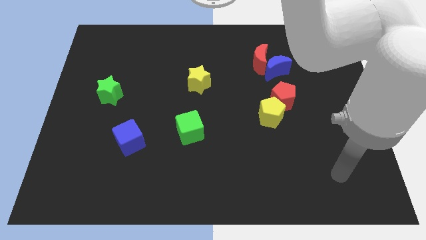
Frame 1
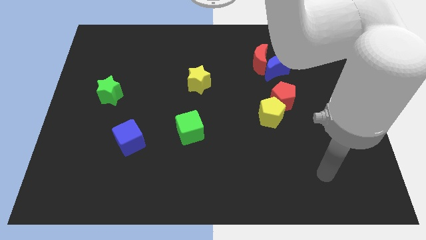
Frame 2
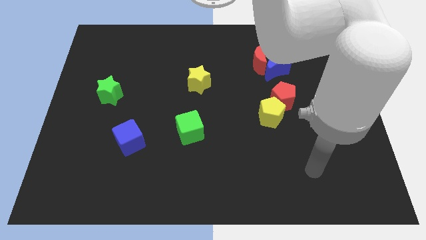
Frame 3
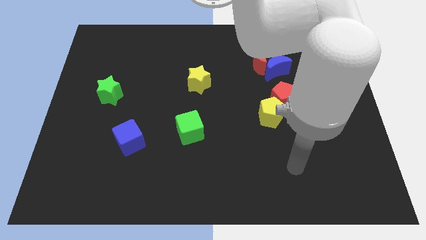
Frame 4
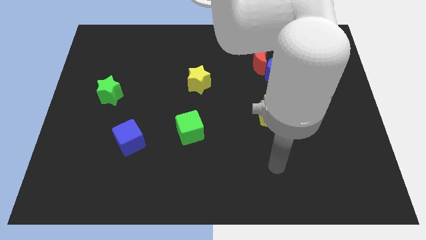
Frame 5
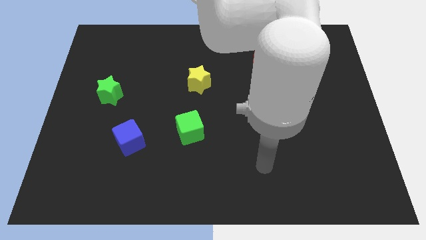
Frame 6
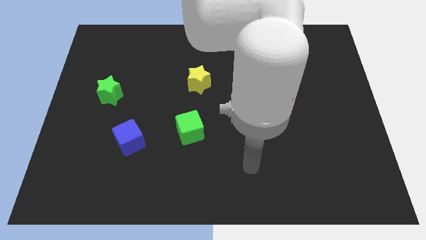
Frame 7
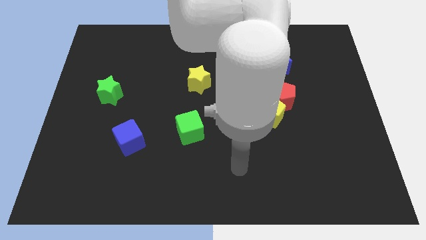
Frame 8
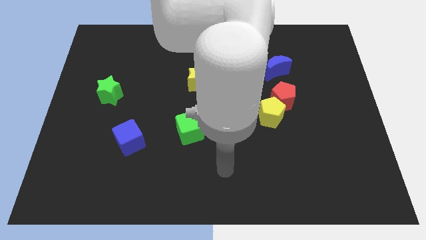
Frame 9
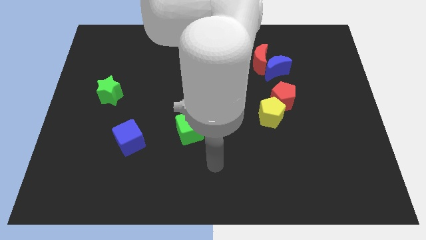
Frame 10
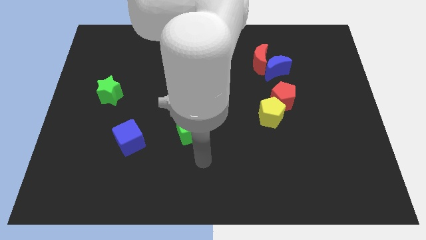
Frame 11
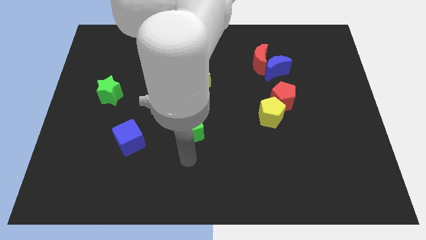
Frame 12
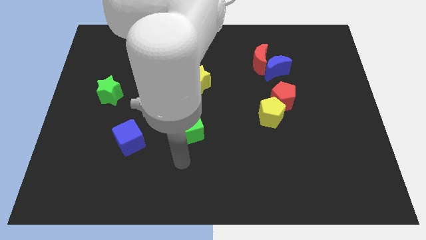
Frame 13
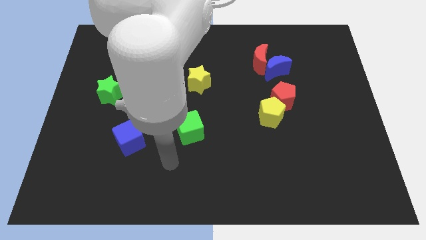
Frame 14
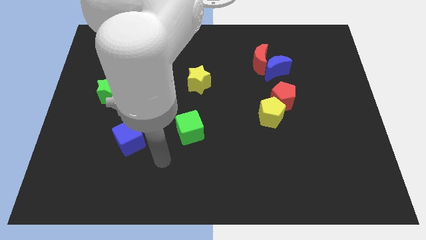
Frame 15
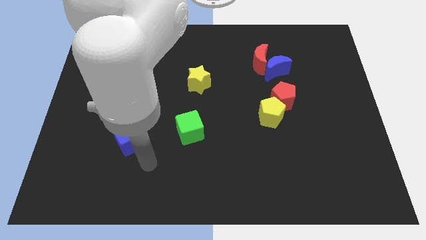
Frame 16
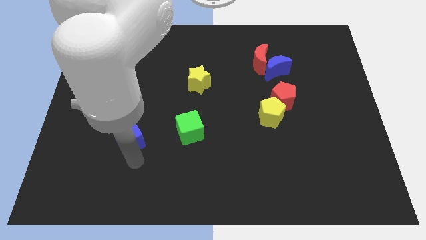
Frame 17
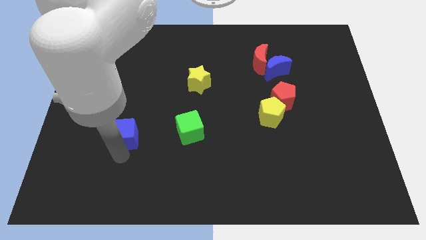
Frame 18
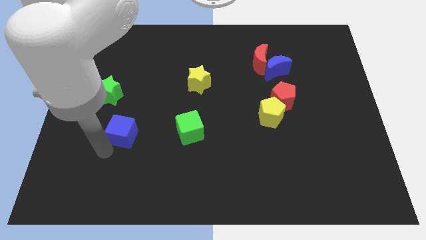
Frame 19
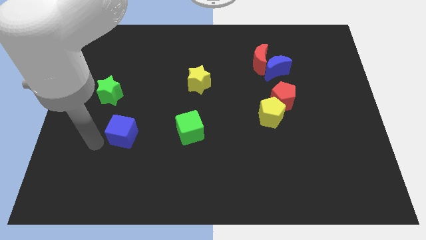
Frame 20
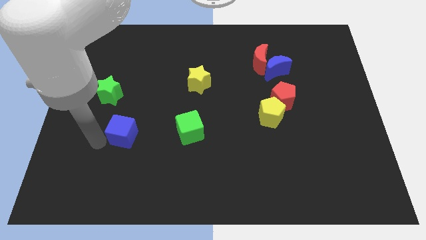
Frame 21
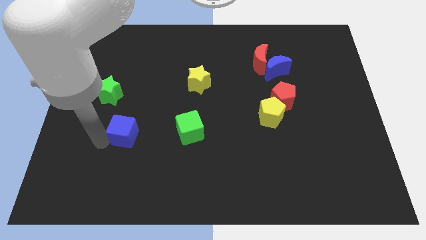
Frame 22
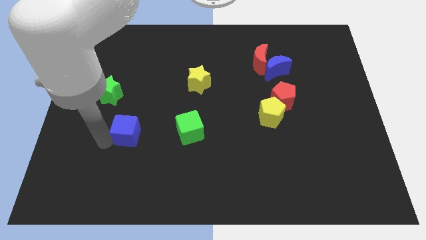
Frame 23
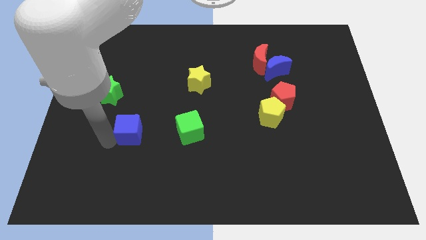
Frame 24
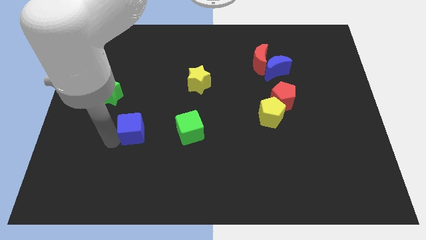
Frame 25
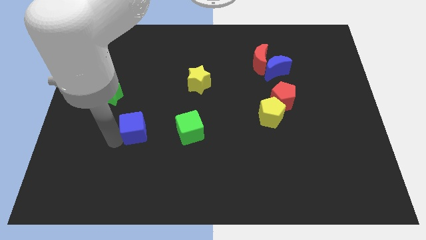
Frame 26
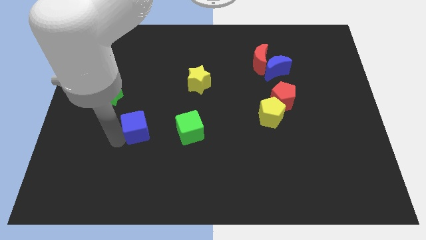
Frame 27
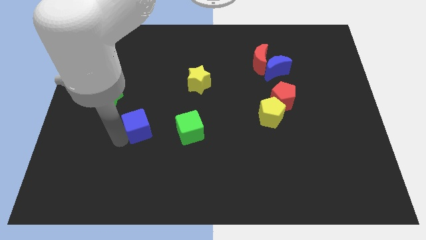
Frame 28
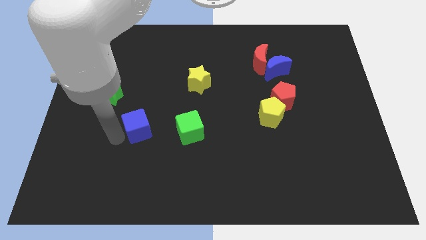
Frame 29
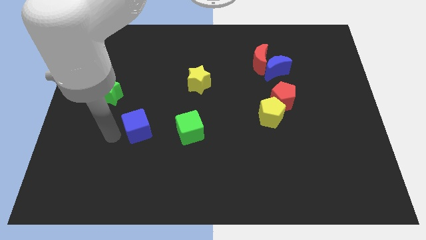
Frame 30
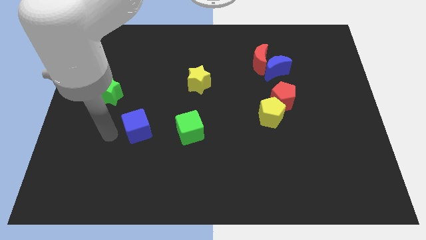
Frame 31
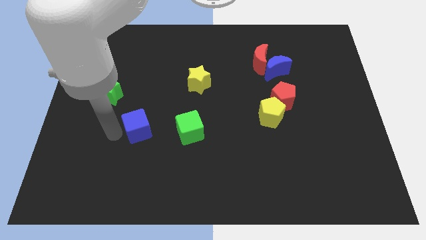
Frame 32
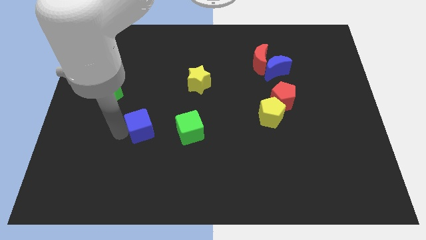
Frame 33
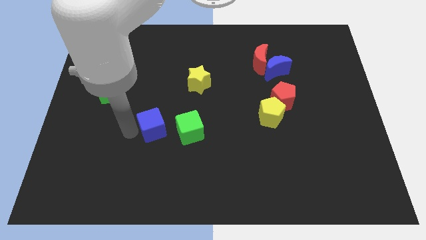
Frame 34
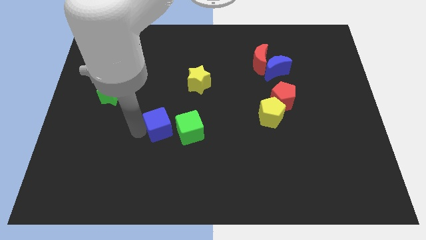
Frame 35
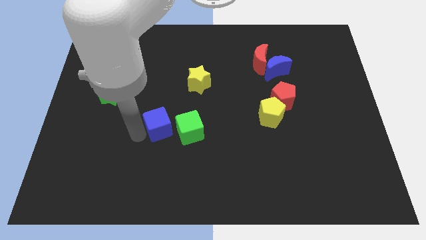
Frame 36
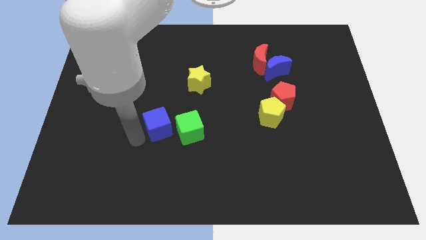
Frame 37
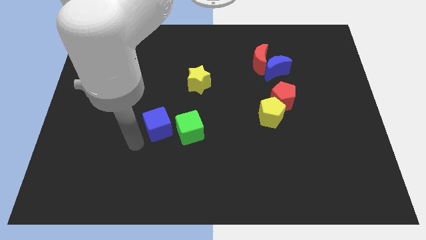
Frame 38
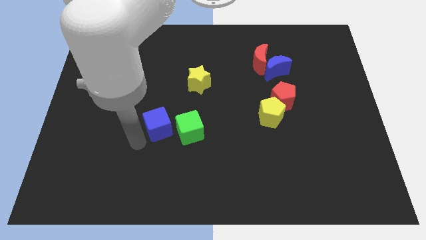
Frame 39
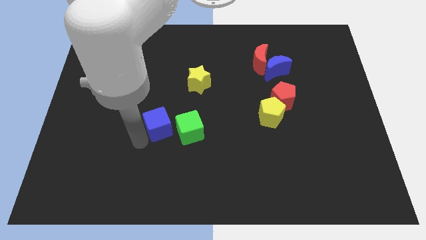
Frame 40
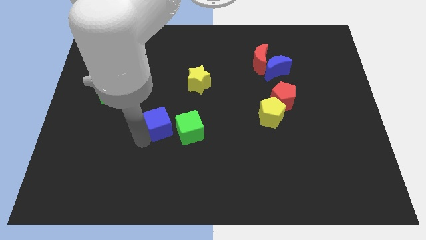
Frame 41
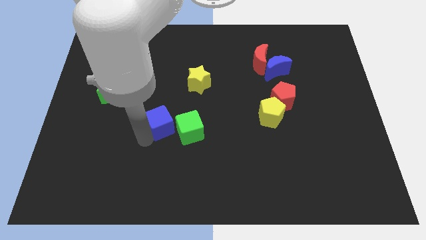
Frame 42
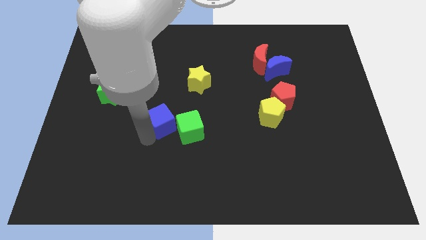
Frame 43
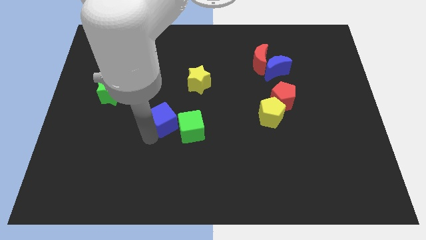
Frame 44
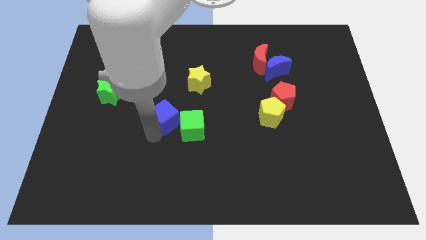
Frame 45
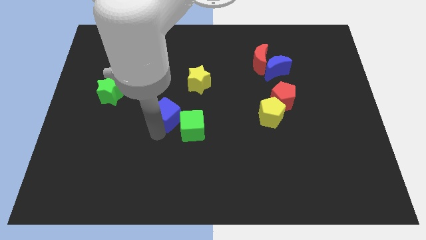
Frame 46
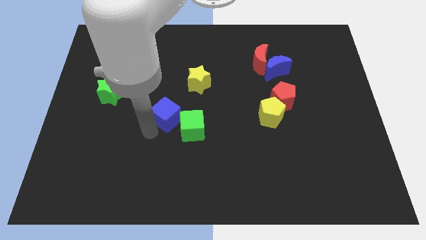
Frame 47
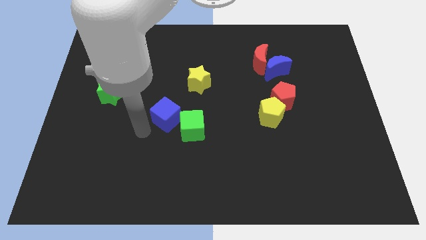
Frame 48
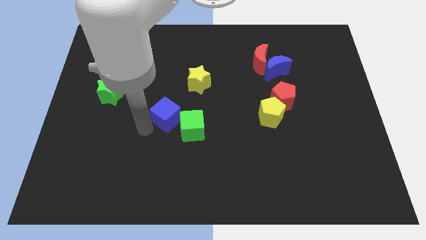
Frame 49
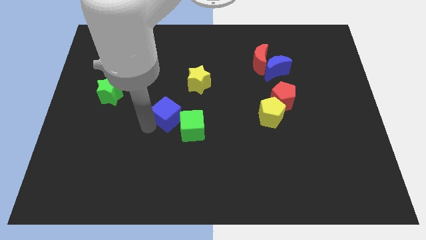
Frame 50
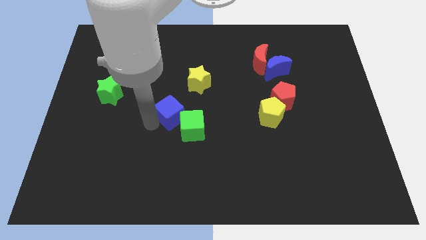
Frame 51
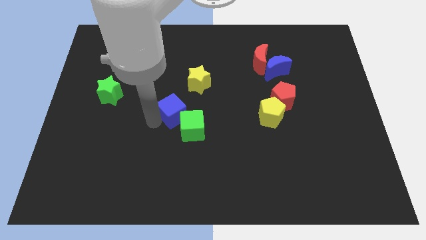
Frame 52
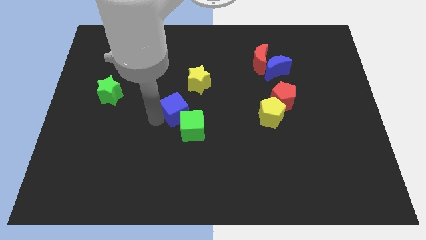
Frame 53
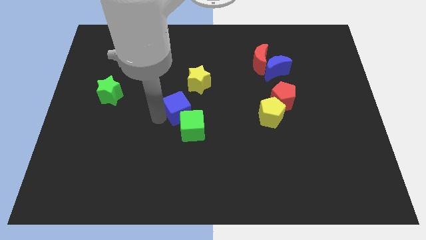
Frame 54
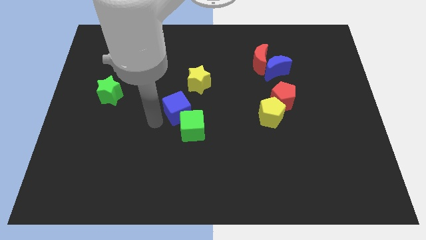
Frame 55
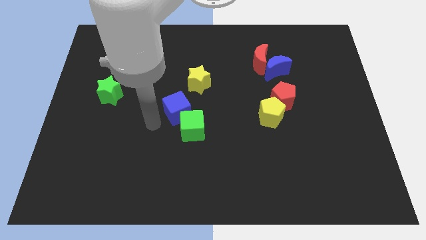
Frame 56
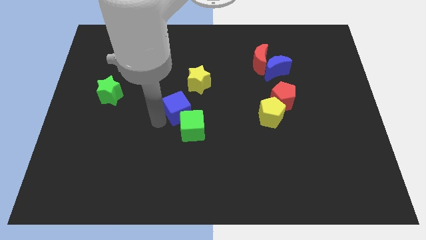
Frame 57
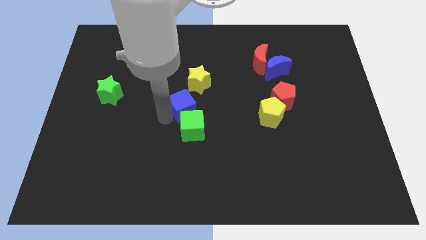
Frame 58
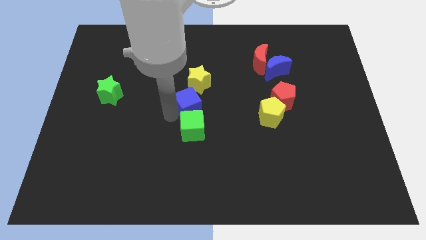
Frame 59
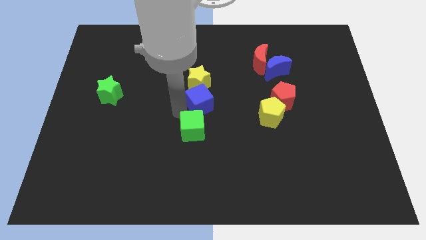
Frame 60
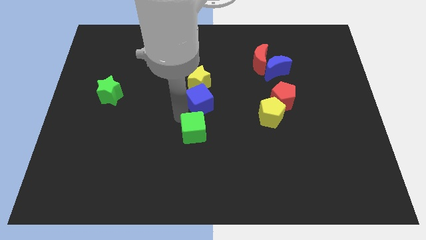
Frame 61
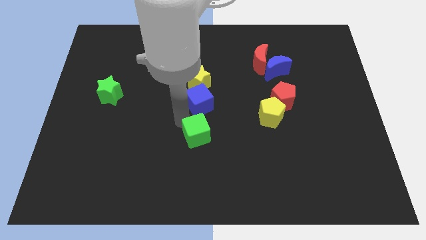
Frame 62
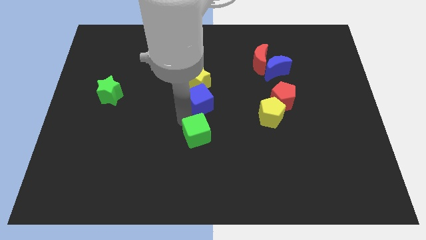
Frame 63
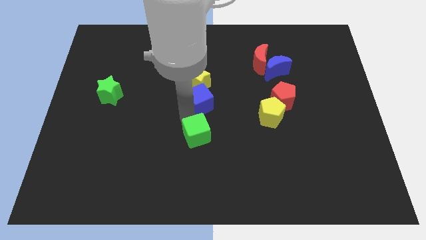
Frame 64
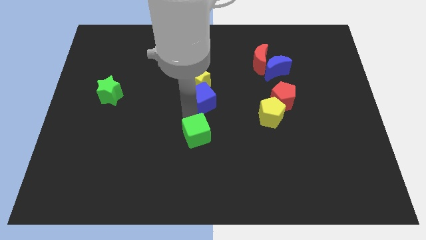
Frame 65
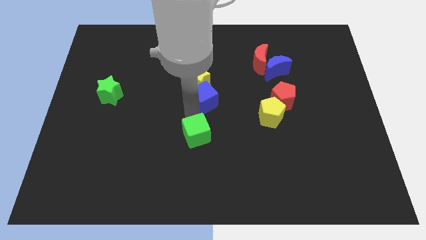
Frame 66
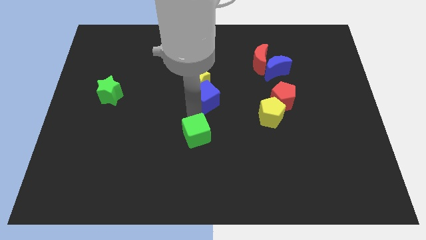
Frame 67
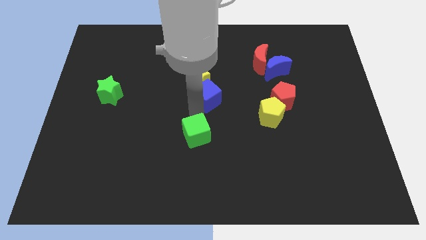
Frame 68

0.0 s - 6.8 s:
push the blue cube diagonally upwards and right

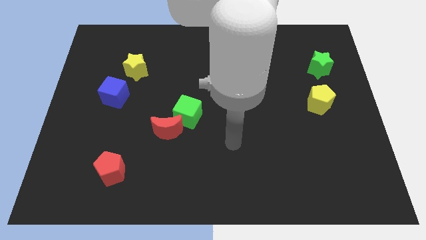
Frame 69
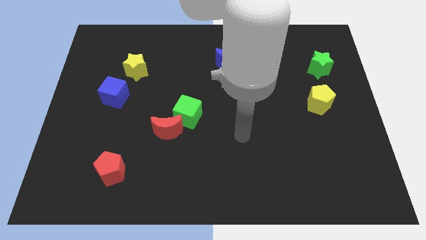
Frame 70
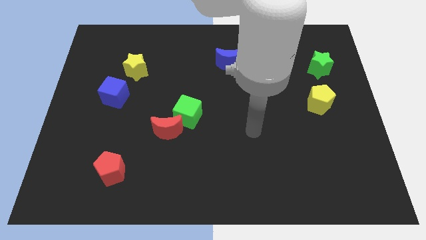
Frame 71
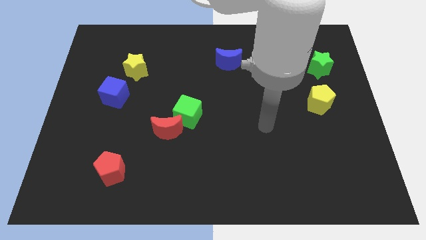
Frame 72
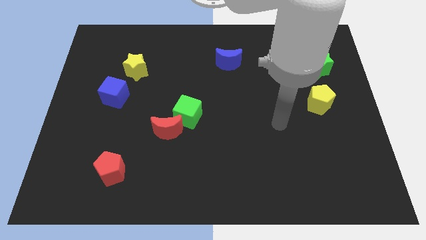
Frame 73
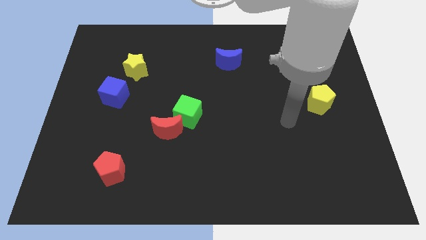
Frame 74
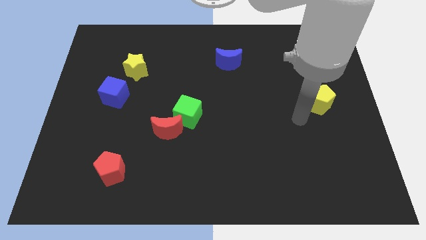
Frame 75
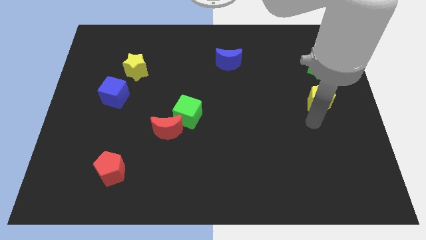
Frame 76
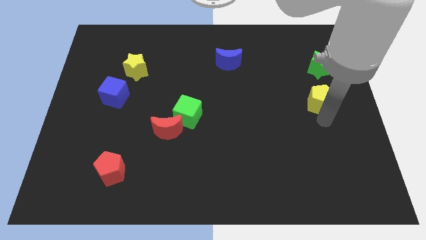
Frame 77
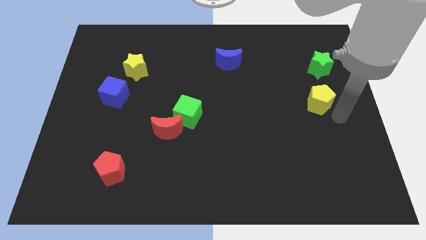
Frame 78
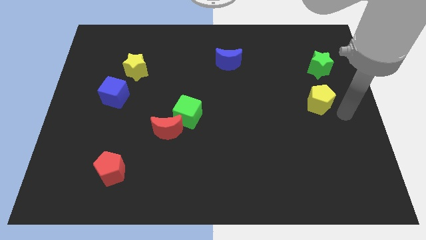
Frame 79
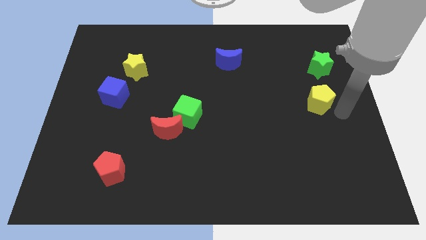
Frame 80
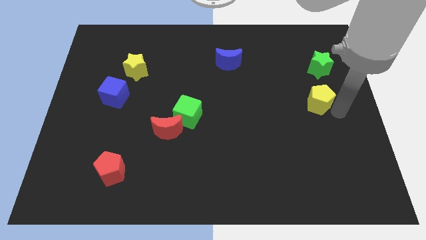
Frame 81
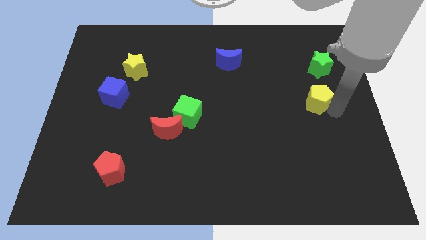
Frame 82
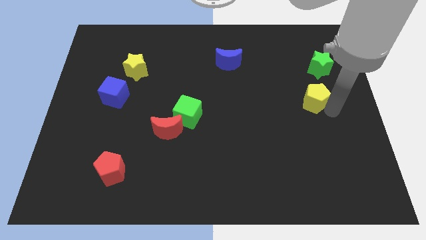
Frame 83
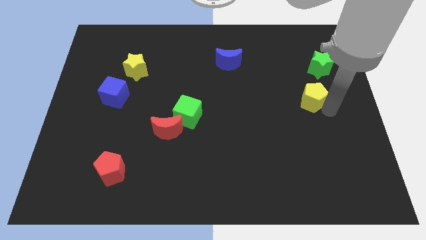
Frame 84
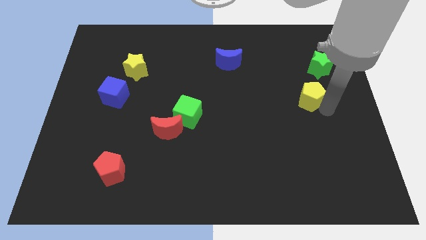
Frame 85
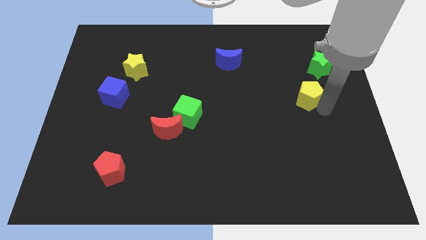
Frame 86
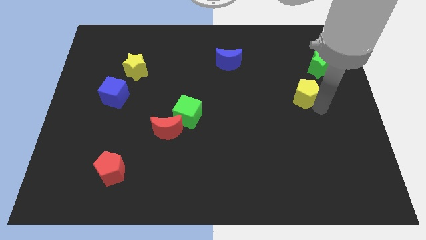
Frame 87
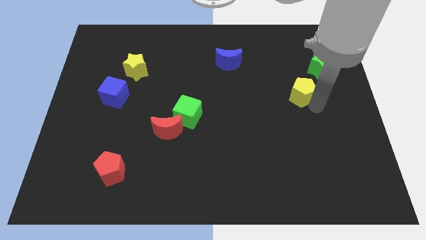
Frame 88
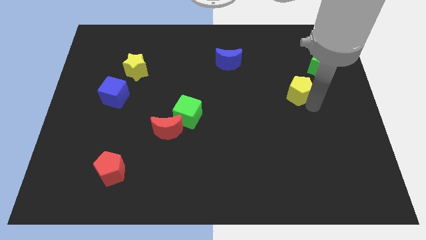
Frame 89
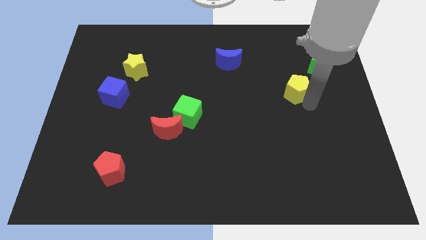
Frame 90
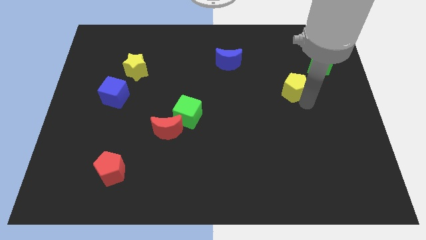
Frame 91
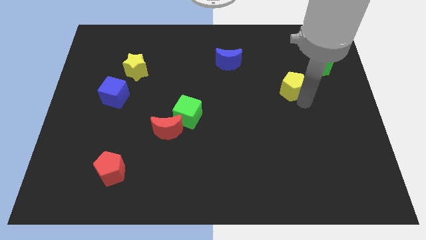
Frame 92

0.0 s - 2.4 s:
push the yellow pentagon up and left diagonally somewhat
